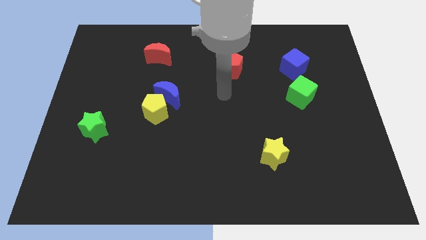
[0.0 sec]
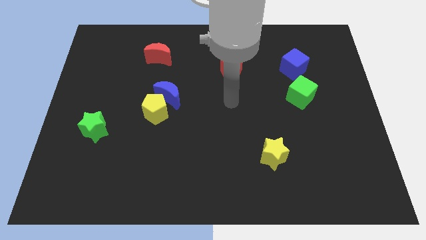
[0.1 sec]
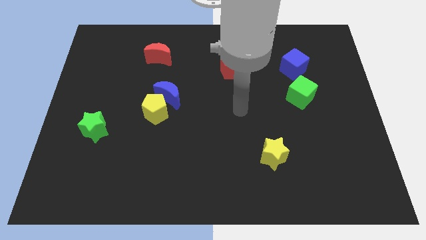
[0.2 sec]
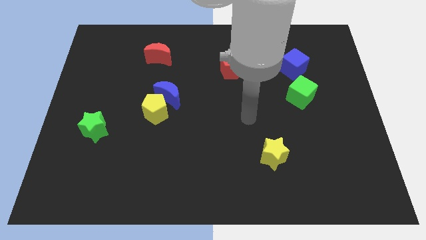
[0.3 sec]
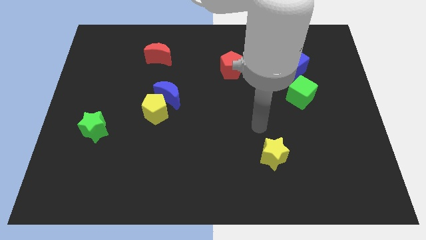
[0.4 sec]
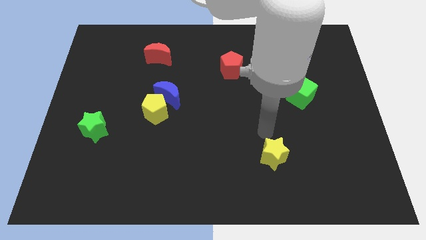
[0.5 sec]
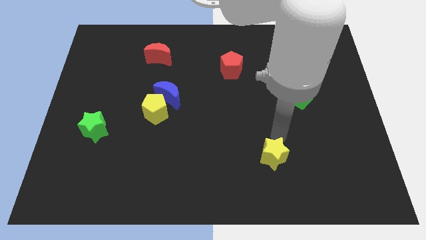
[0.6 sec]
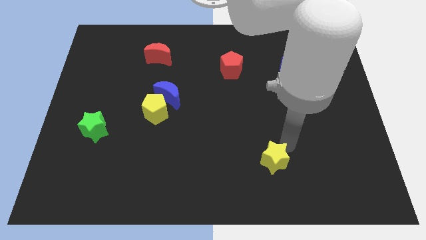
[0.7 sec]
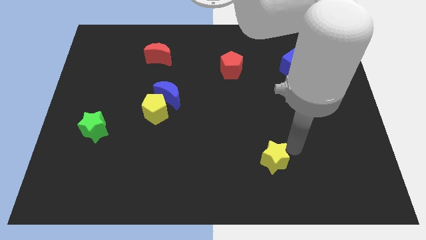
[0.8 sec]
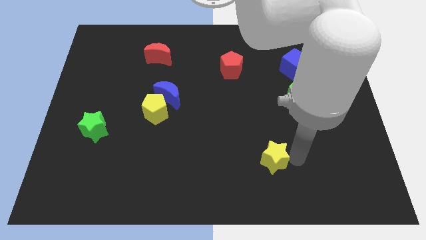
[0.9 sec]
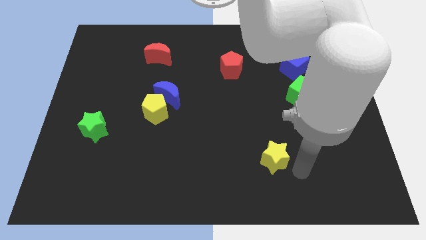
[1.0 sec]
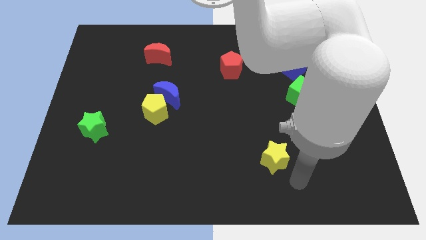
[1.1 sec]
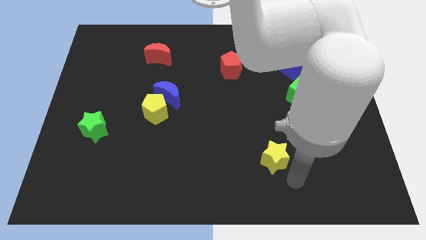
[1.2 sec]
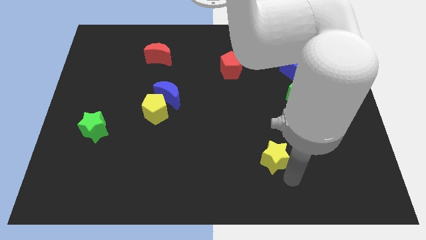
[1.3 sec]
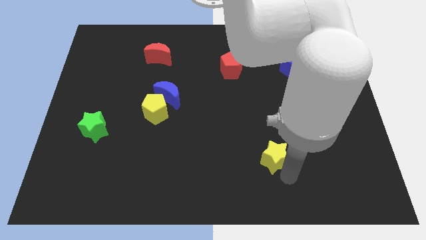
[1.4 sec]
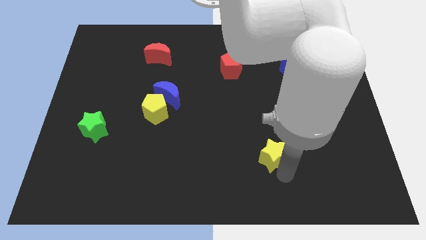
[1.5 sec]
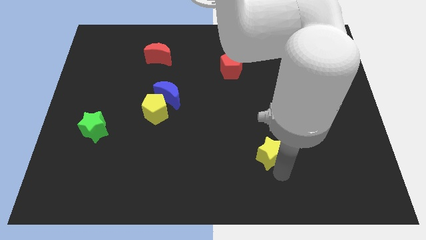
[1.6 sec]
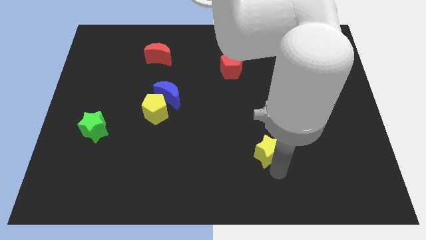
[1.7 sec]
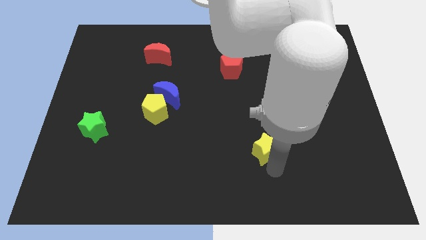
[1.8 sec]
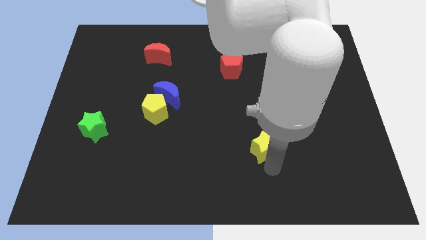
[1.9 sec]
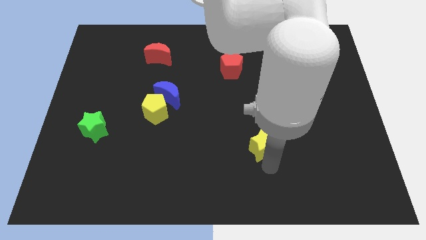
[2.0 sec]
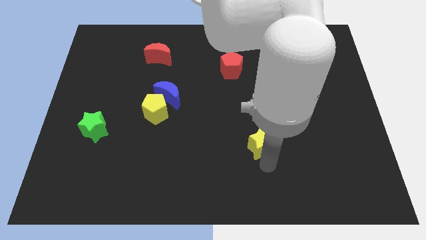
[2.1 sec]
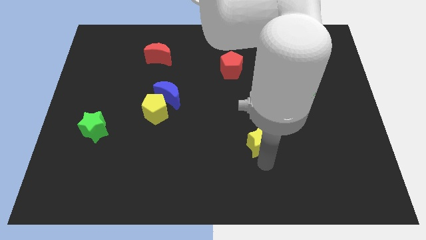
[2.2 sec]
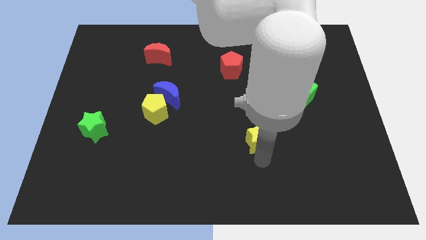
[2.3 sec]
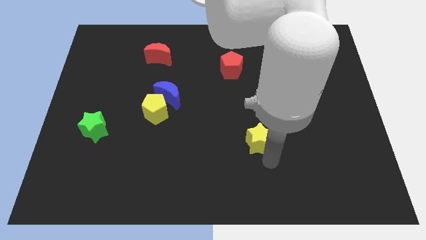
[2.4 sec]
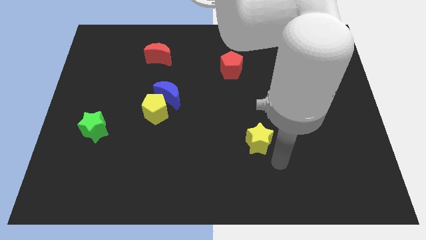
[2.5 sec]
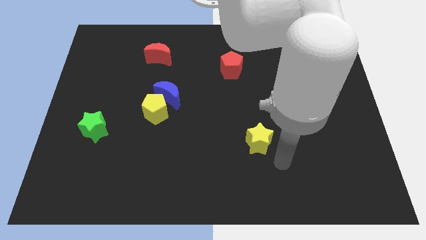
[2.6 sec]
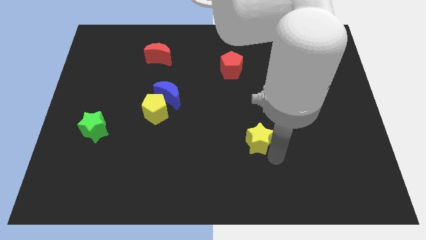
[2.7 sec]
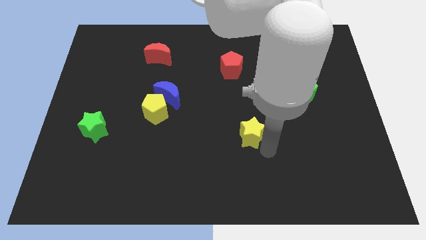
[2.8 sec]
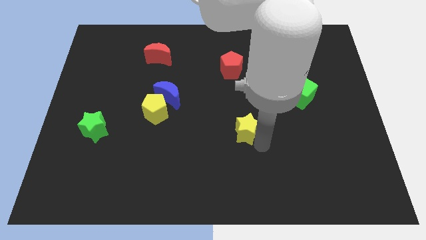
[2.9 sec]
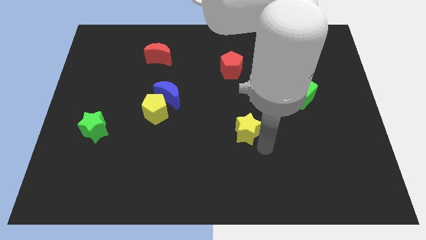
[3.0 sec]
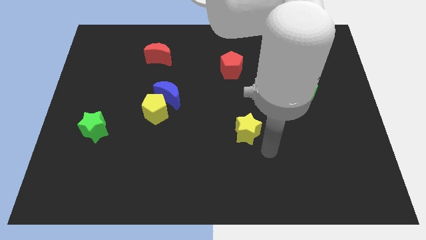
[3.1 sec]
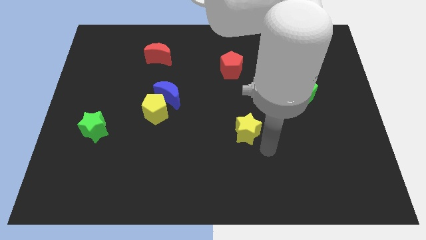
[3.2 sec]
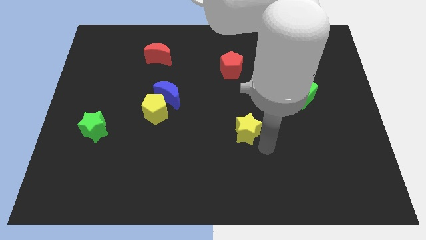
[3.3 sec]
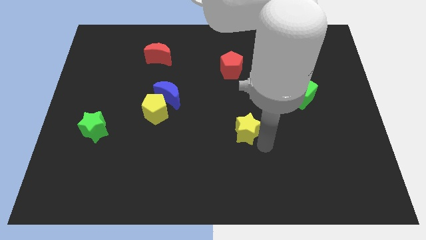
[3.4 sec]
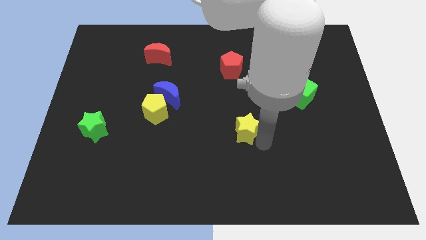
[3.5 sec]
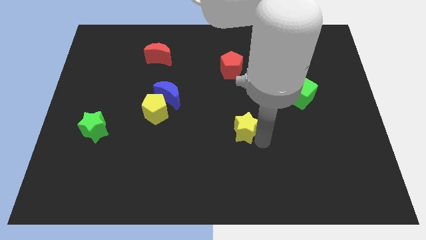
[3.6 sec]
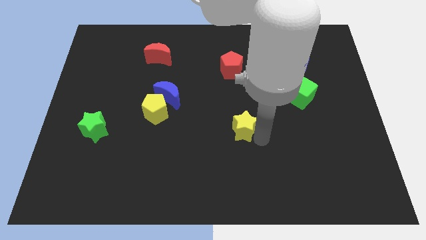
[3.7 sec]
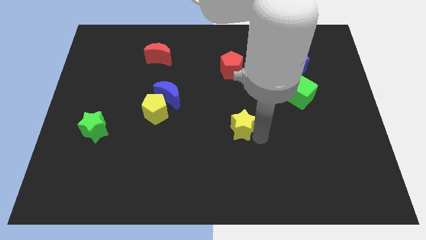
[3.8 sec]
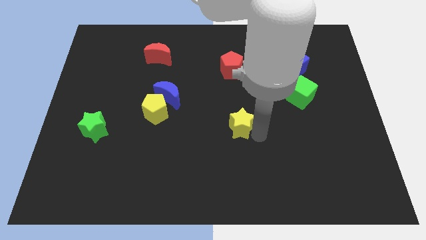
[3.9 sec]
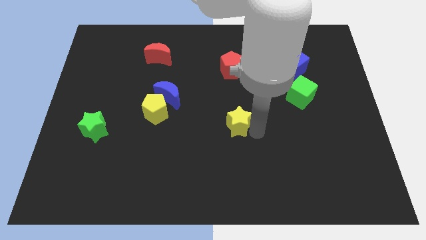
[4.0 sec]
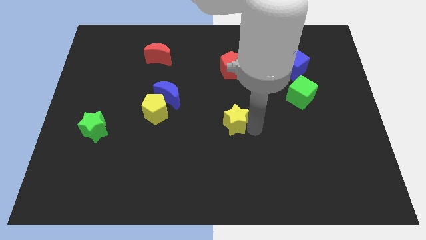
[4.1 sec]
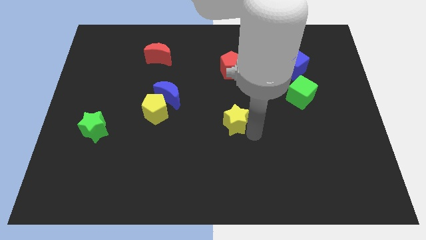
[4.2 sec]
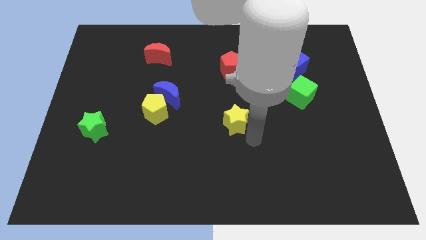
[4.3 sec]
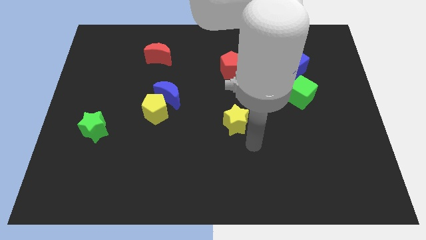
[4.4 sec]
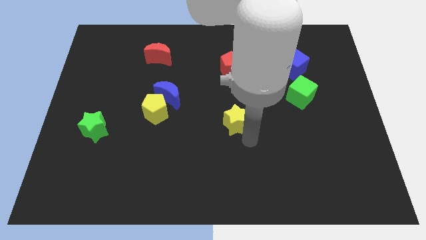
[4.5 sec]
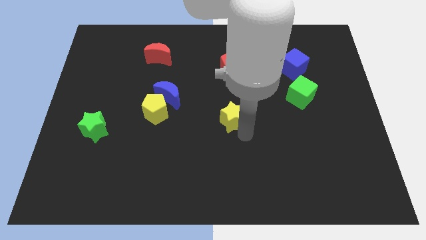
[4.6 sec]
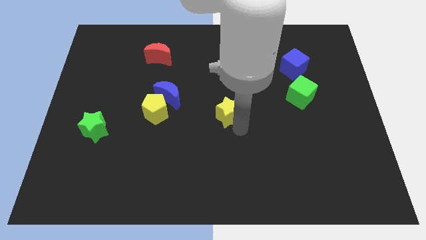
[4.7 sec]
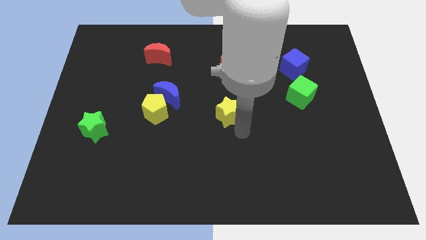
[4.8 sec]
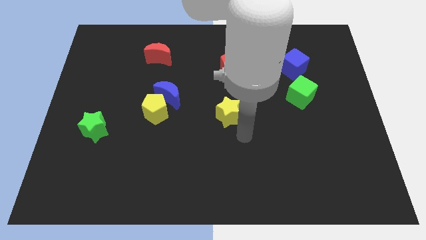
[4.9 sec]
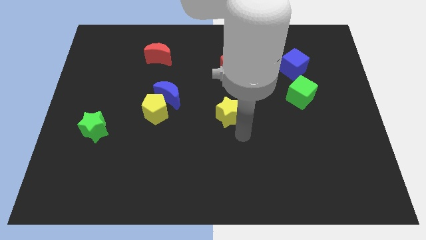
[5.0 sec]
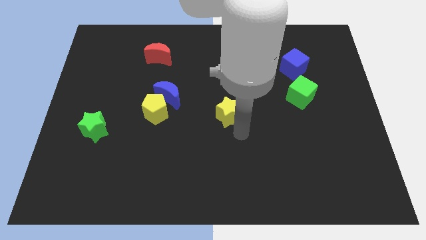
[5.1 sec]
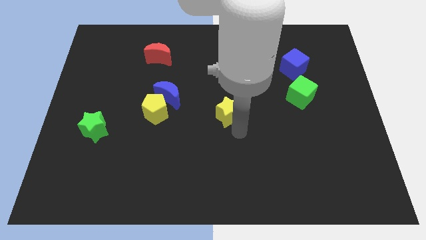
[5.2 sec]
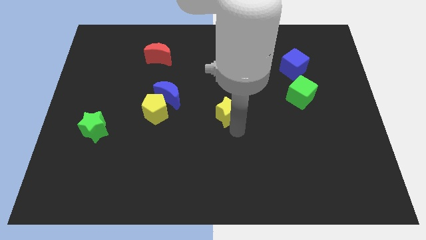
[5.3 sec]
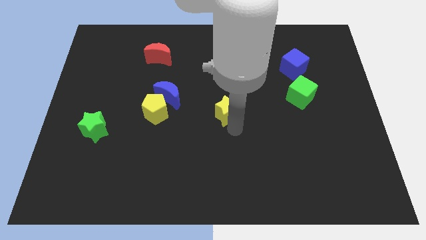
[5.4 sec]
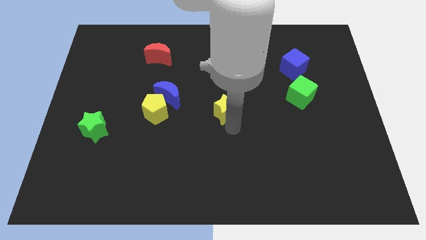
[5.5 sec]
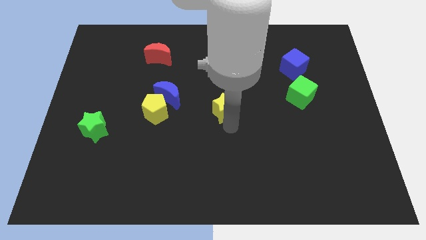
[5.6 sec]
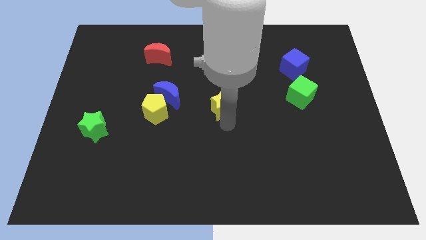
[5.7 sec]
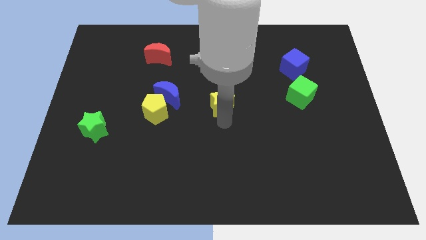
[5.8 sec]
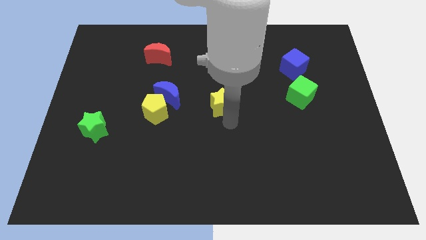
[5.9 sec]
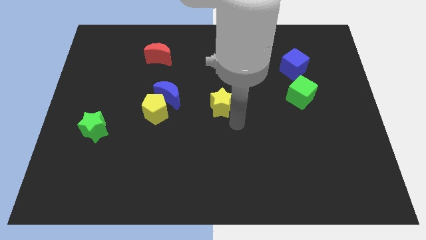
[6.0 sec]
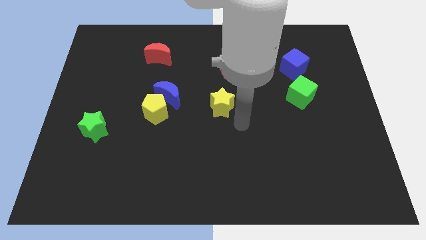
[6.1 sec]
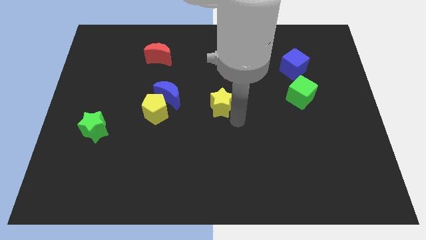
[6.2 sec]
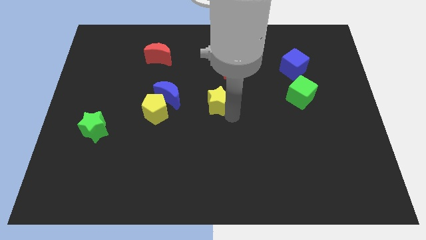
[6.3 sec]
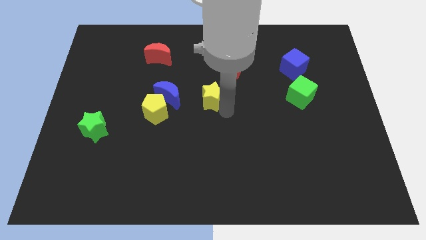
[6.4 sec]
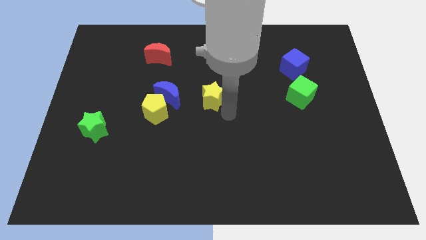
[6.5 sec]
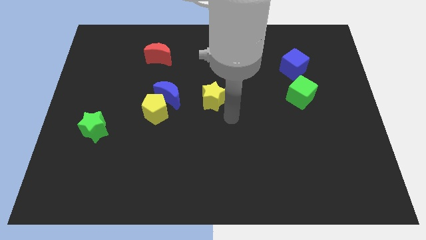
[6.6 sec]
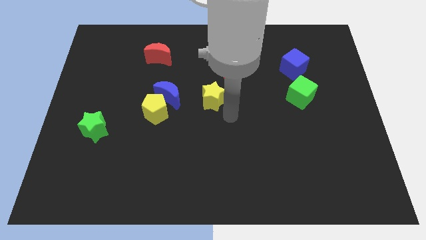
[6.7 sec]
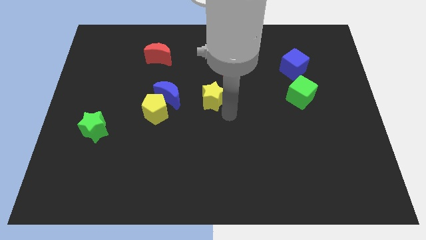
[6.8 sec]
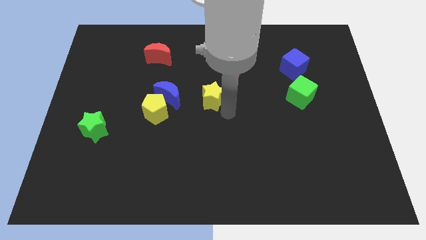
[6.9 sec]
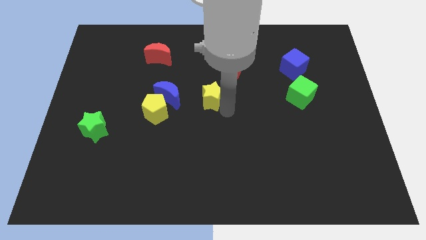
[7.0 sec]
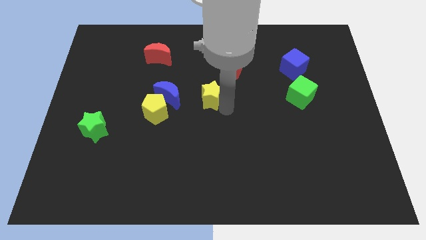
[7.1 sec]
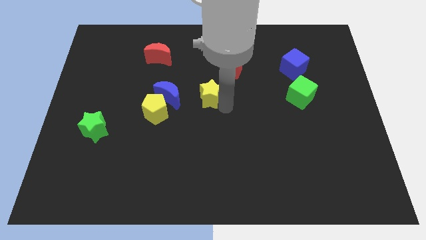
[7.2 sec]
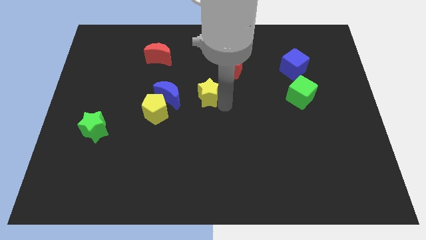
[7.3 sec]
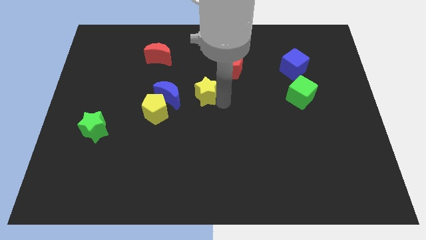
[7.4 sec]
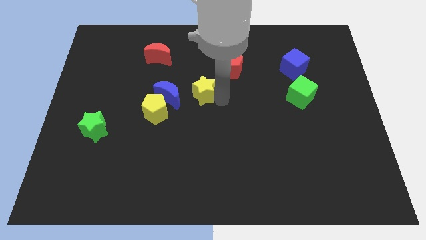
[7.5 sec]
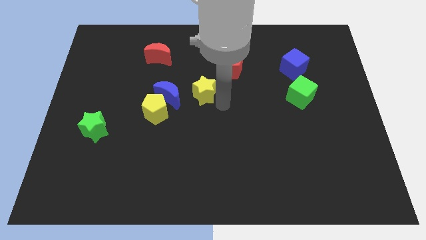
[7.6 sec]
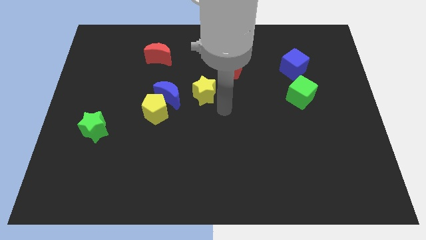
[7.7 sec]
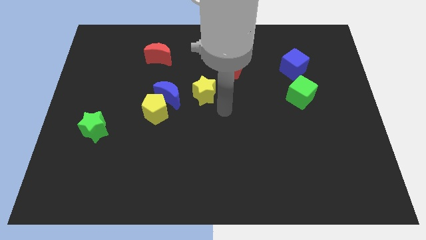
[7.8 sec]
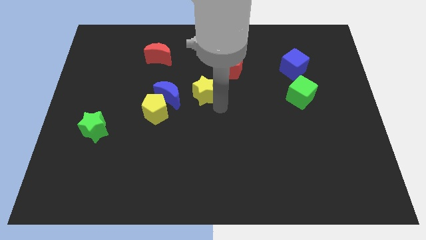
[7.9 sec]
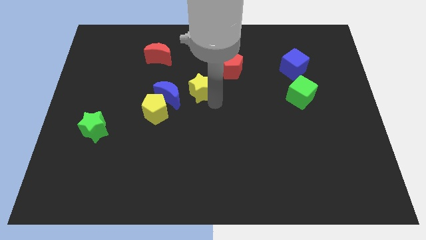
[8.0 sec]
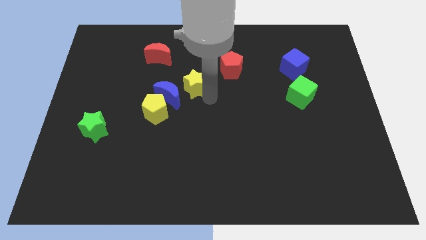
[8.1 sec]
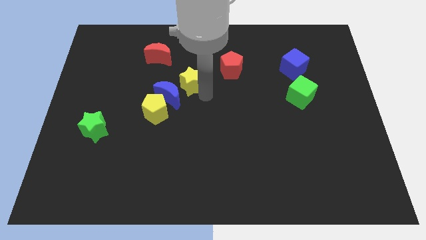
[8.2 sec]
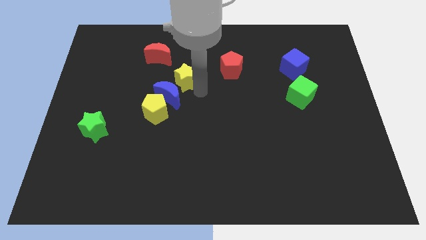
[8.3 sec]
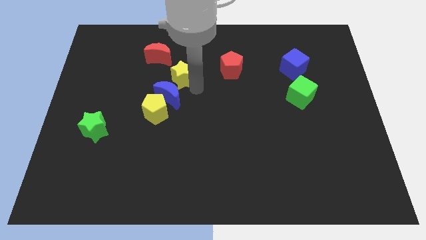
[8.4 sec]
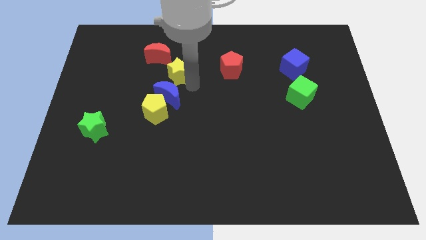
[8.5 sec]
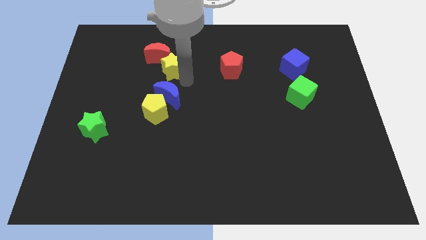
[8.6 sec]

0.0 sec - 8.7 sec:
move the yellow star towards the red moon
